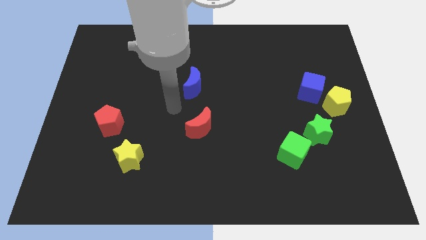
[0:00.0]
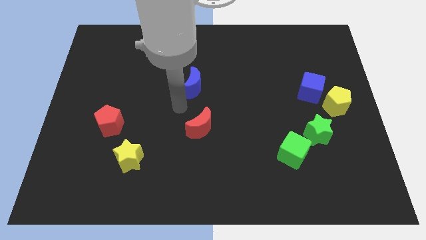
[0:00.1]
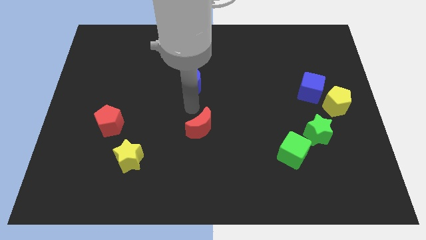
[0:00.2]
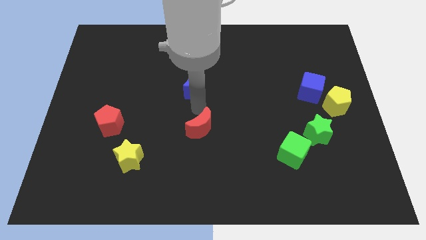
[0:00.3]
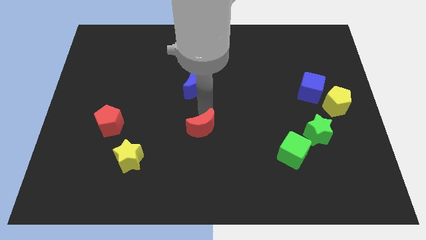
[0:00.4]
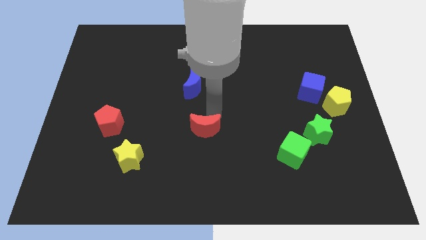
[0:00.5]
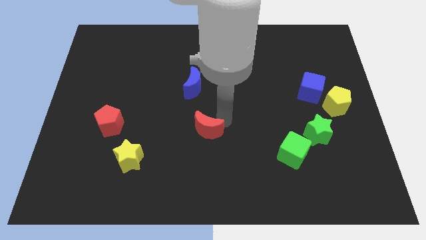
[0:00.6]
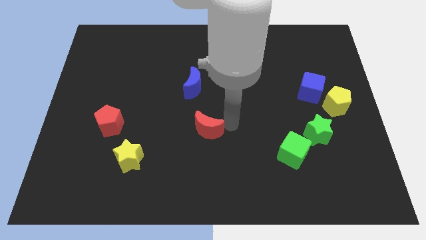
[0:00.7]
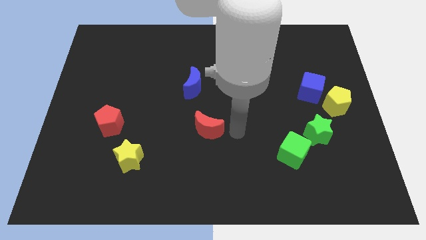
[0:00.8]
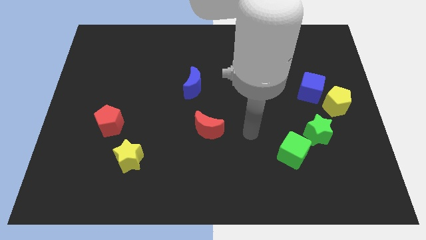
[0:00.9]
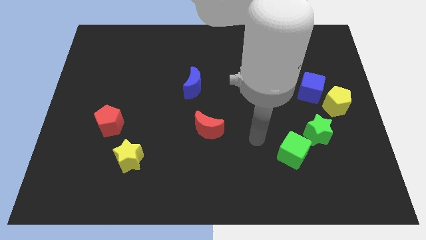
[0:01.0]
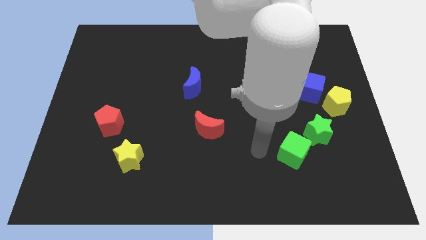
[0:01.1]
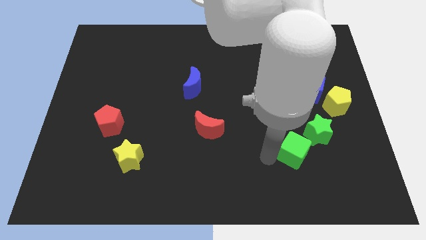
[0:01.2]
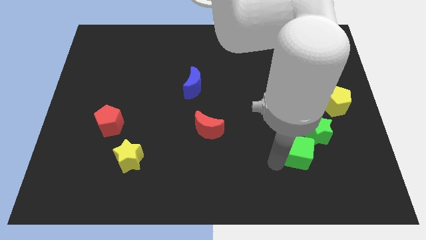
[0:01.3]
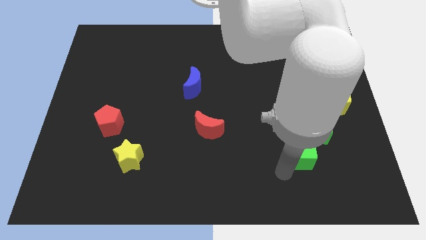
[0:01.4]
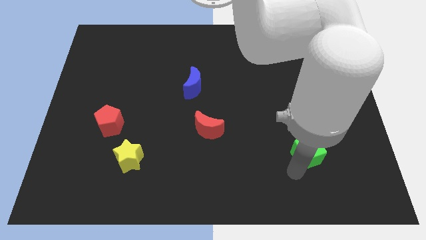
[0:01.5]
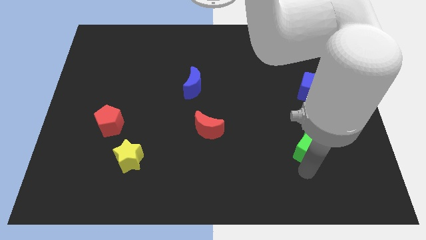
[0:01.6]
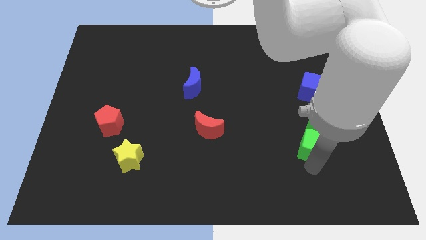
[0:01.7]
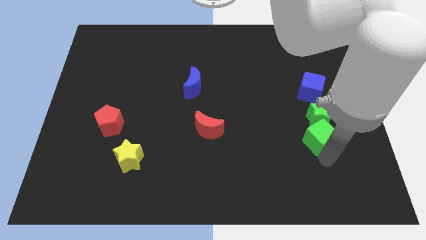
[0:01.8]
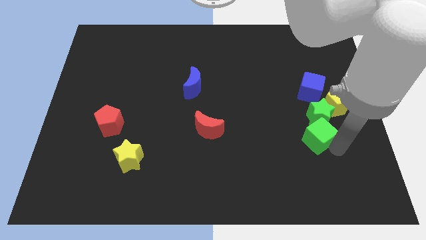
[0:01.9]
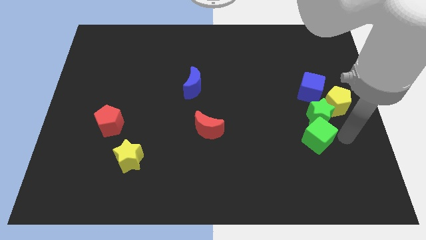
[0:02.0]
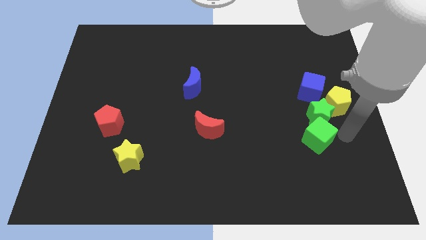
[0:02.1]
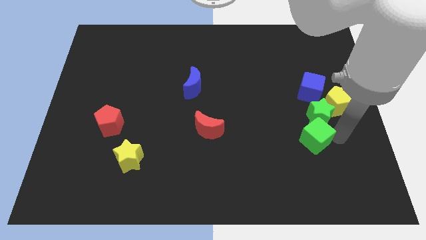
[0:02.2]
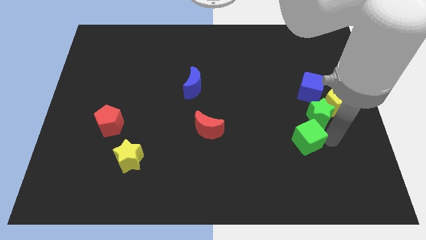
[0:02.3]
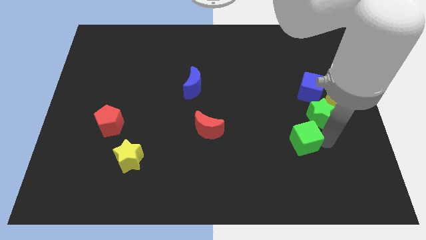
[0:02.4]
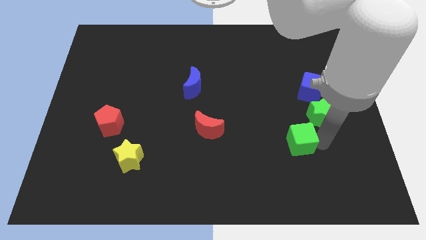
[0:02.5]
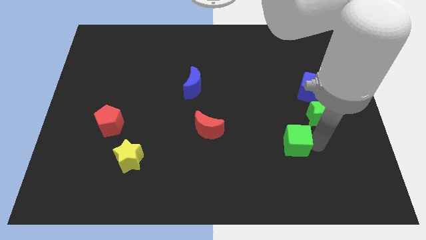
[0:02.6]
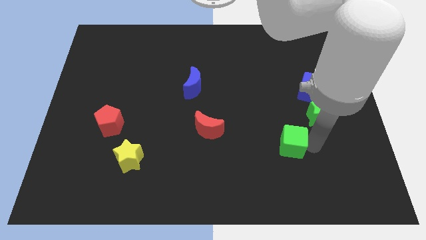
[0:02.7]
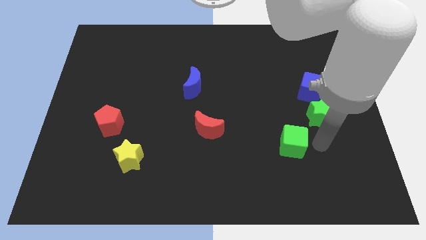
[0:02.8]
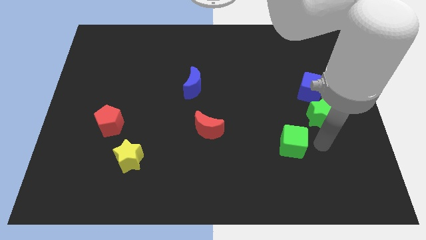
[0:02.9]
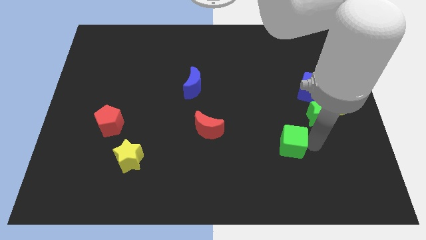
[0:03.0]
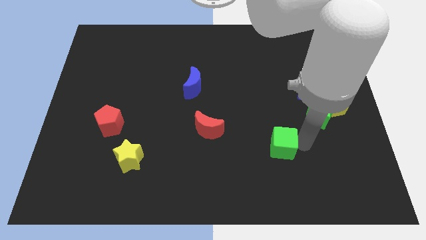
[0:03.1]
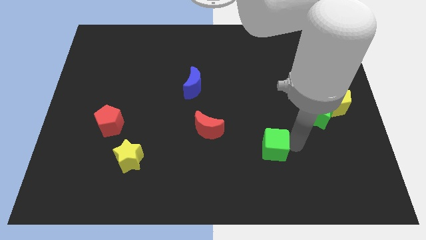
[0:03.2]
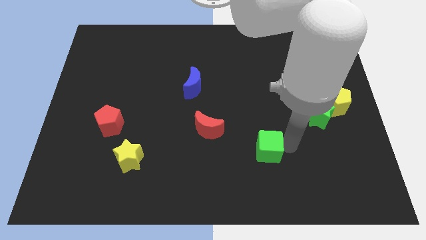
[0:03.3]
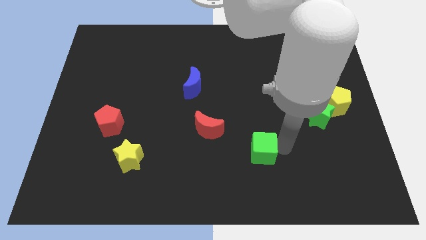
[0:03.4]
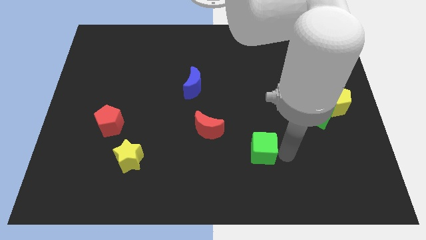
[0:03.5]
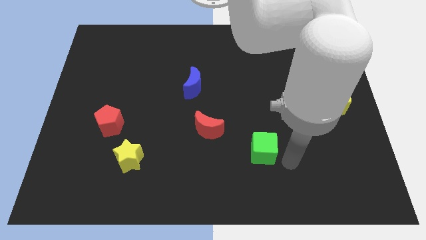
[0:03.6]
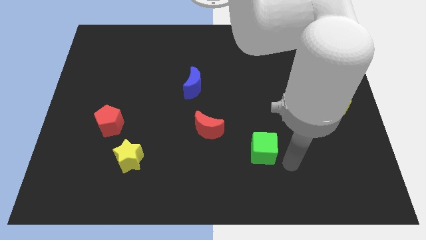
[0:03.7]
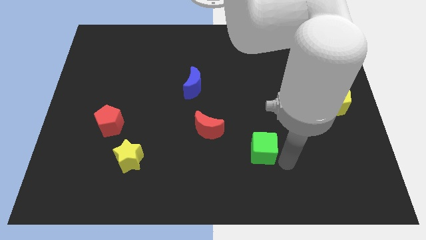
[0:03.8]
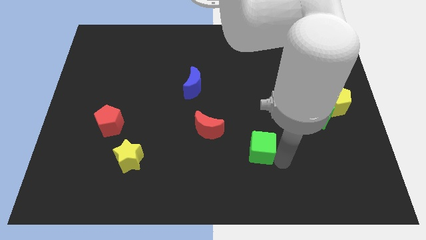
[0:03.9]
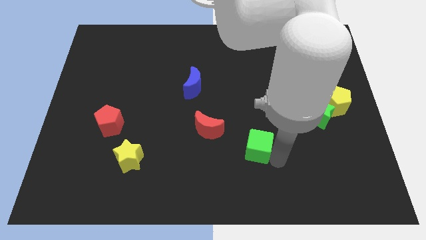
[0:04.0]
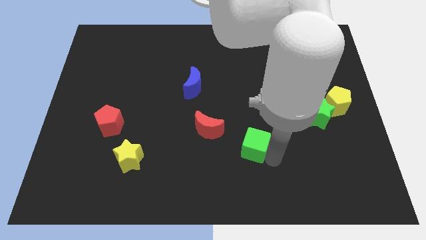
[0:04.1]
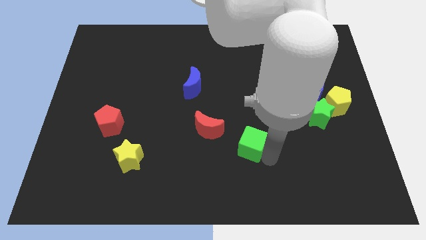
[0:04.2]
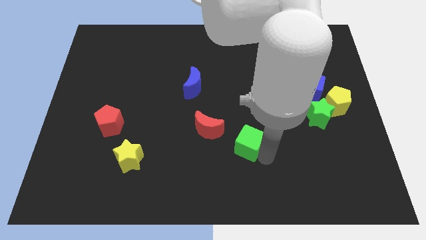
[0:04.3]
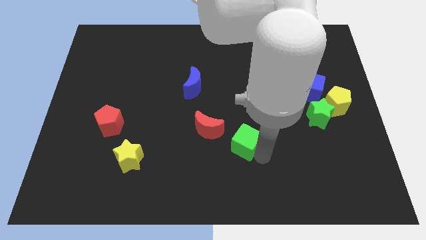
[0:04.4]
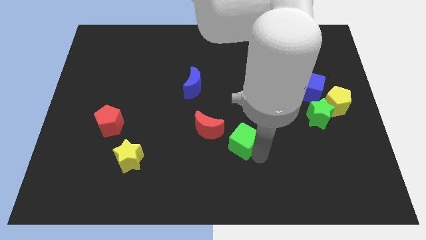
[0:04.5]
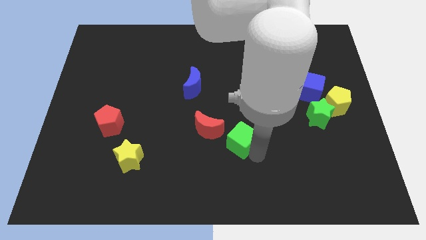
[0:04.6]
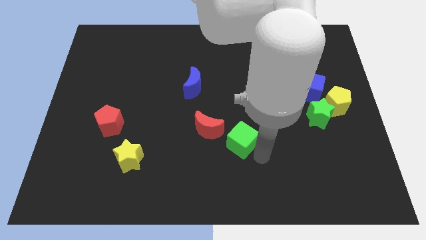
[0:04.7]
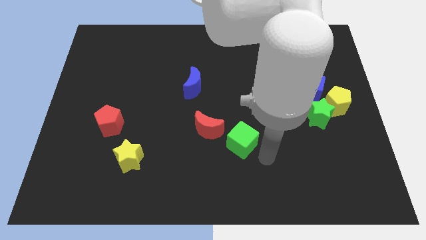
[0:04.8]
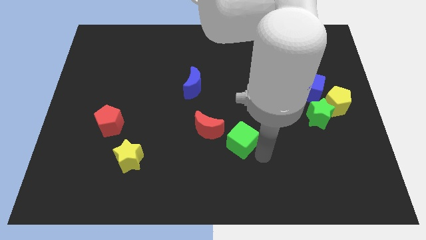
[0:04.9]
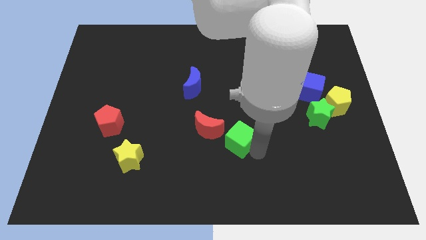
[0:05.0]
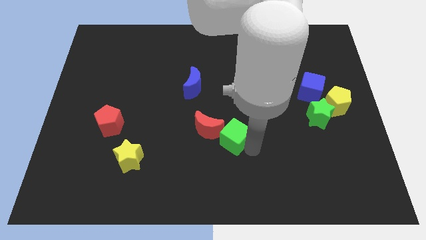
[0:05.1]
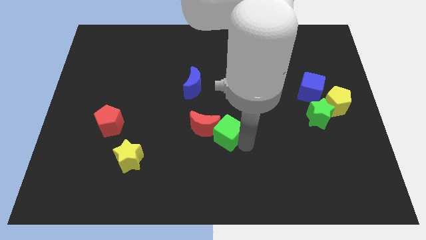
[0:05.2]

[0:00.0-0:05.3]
put the green cube towards the red moon

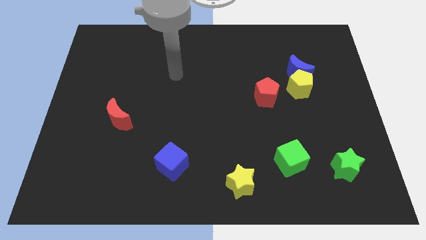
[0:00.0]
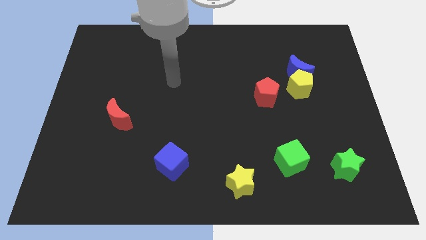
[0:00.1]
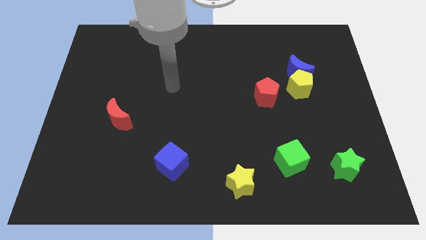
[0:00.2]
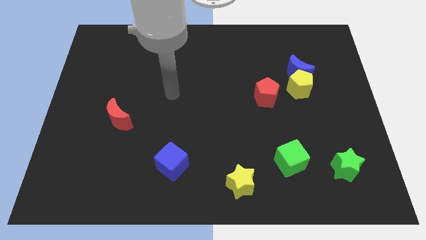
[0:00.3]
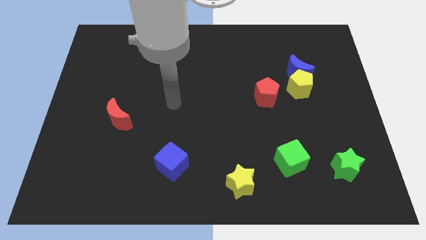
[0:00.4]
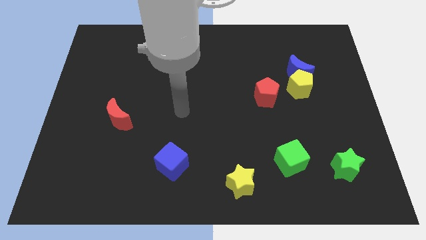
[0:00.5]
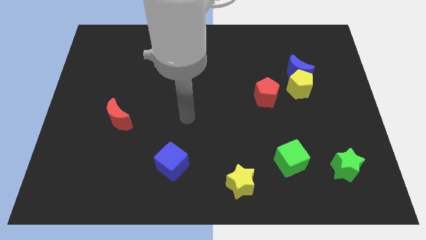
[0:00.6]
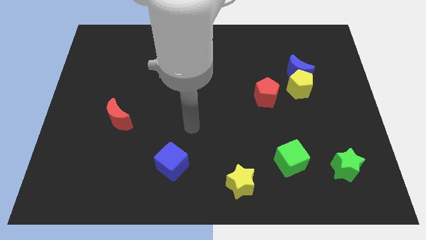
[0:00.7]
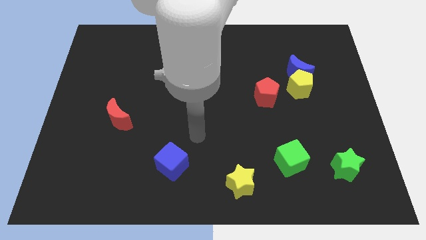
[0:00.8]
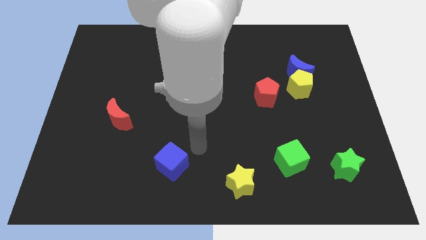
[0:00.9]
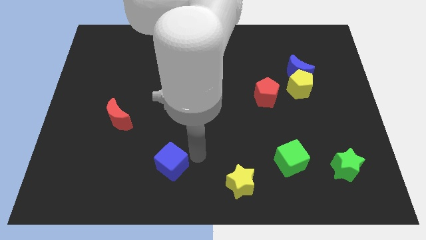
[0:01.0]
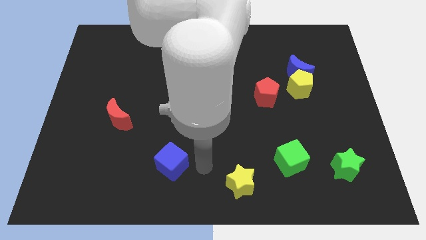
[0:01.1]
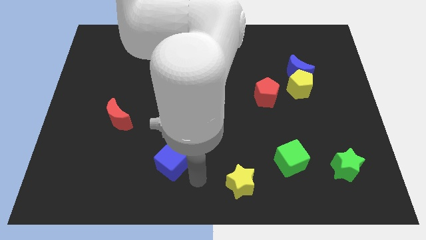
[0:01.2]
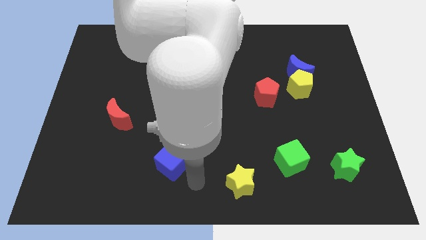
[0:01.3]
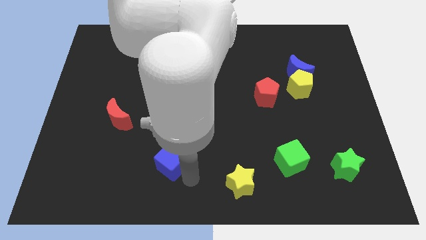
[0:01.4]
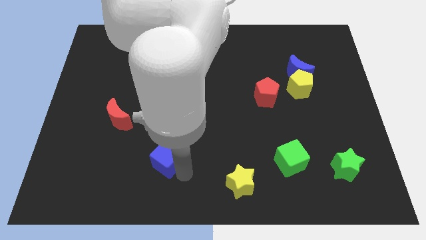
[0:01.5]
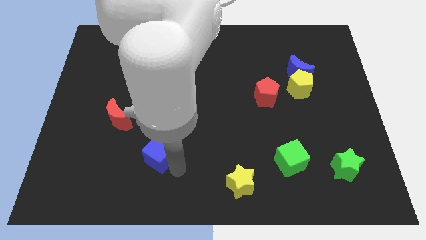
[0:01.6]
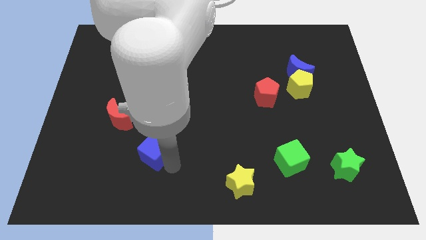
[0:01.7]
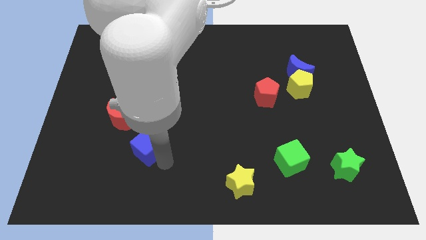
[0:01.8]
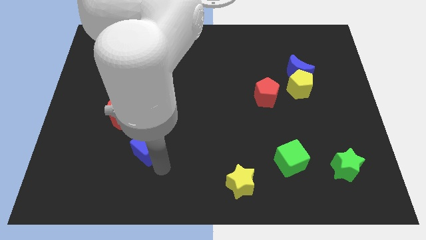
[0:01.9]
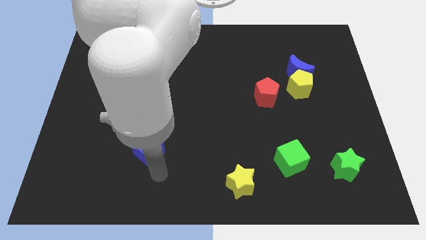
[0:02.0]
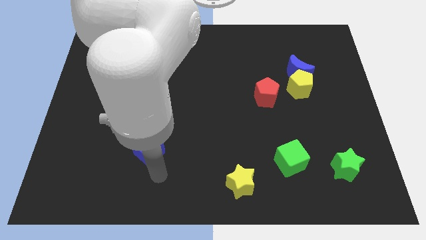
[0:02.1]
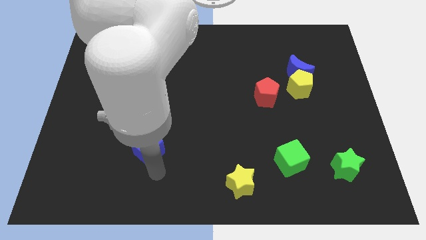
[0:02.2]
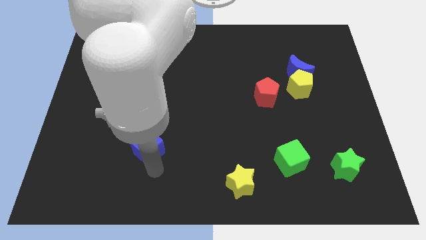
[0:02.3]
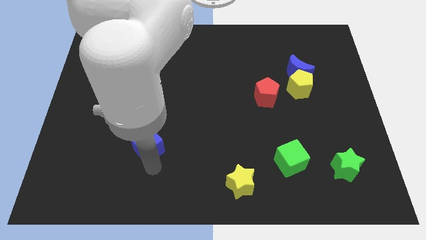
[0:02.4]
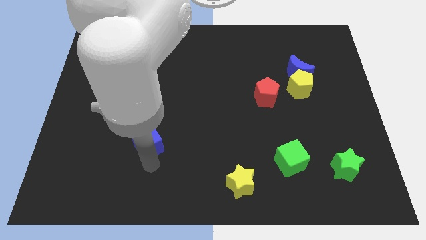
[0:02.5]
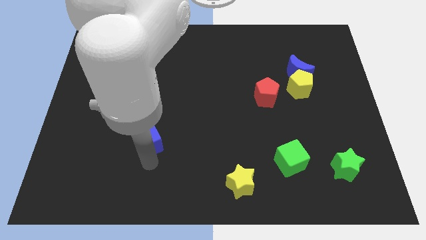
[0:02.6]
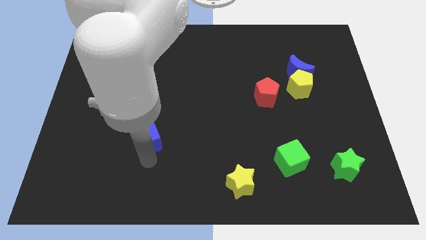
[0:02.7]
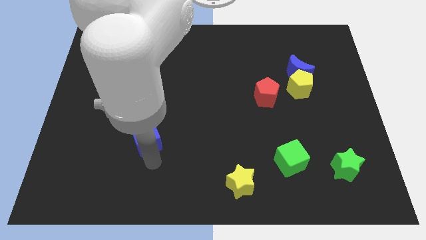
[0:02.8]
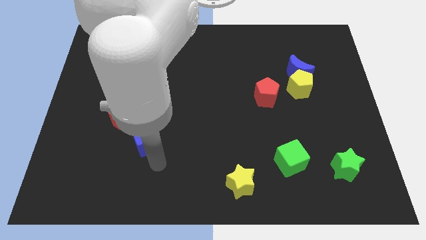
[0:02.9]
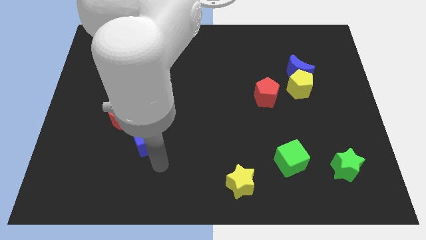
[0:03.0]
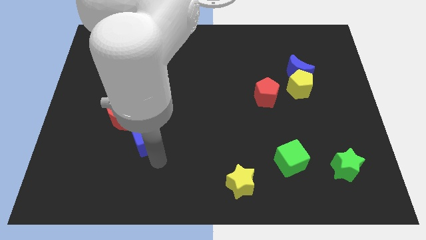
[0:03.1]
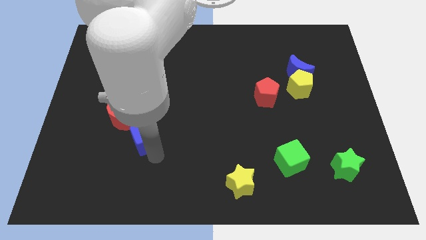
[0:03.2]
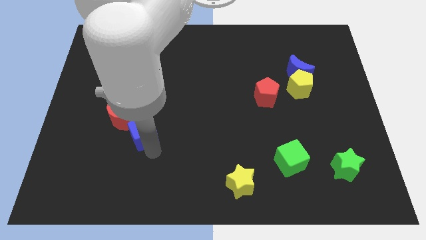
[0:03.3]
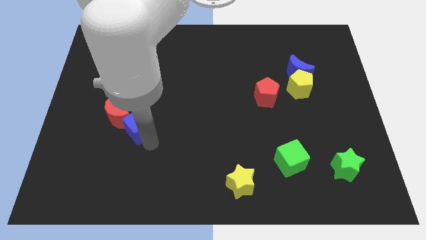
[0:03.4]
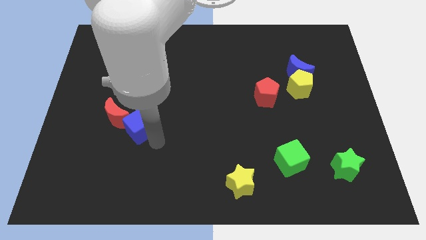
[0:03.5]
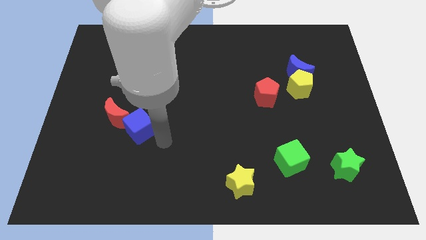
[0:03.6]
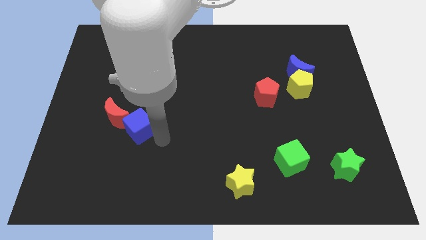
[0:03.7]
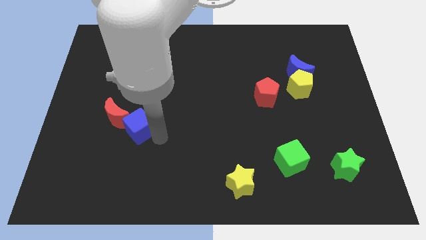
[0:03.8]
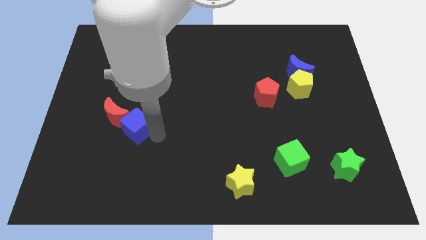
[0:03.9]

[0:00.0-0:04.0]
put the blue cube next to the red moon
